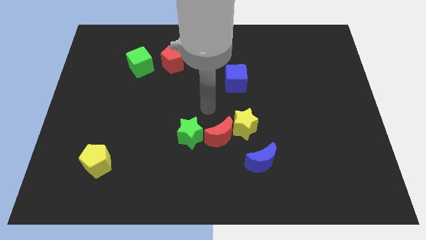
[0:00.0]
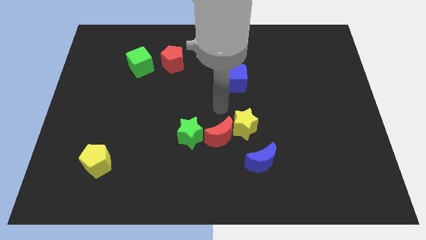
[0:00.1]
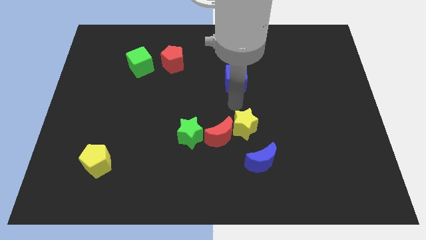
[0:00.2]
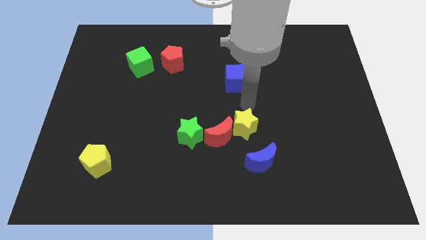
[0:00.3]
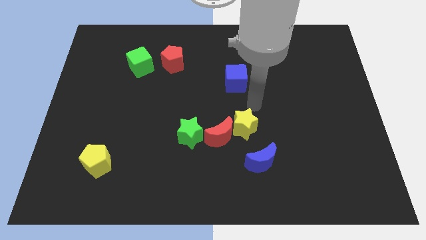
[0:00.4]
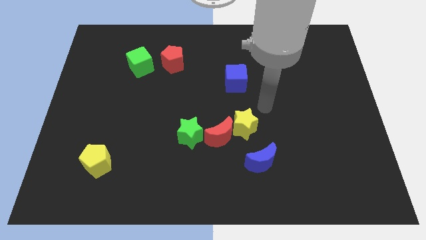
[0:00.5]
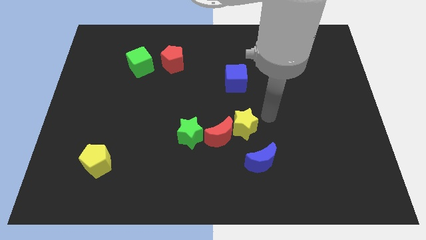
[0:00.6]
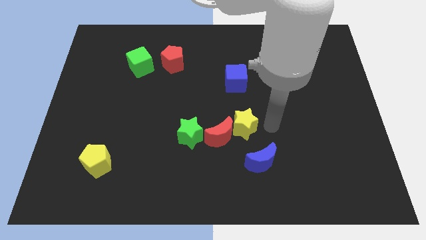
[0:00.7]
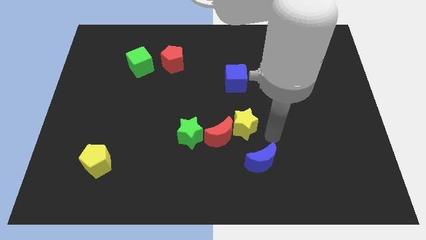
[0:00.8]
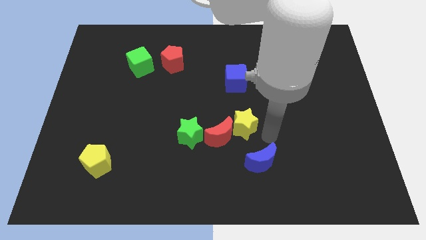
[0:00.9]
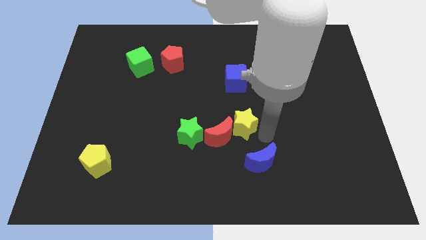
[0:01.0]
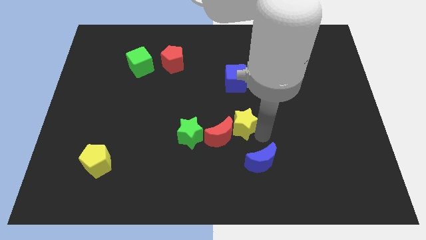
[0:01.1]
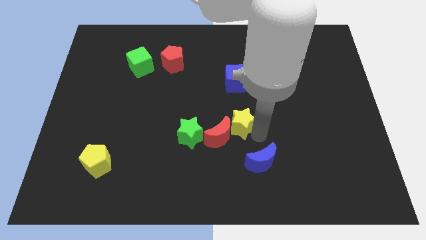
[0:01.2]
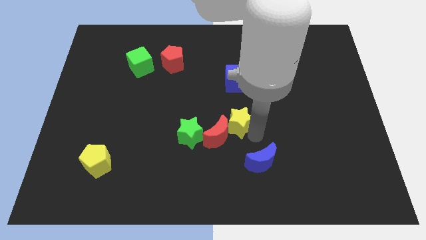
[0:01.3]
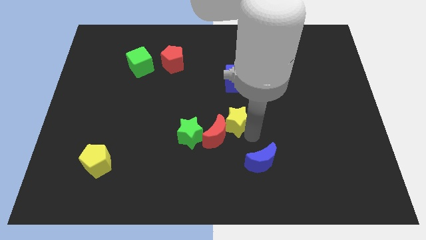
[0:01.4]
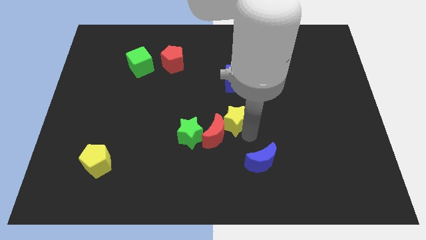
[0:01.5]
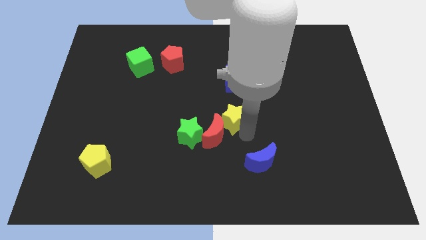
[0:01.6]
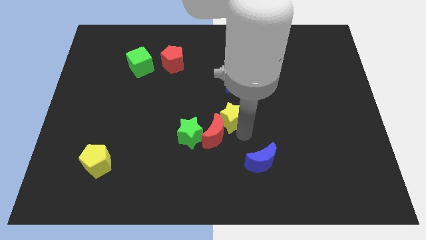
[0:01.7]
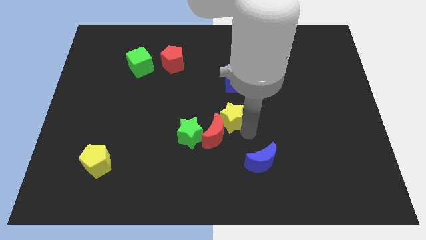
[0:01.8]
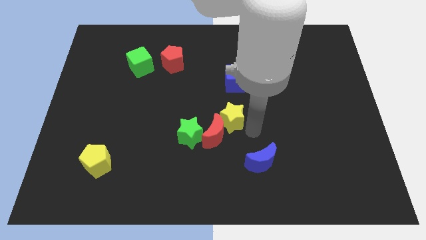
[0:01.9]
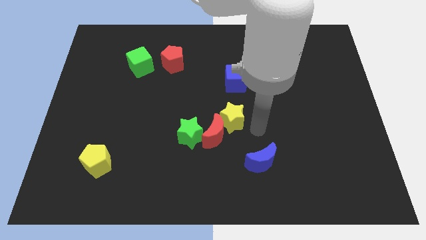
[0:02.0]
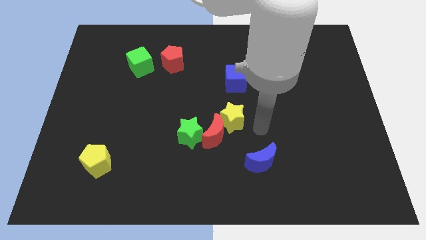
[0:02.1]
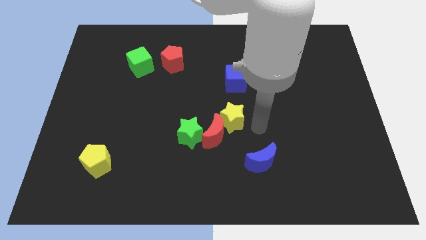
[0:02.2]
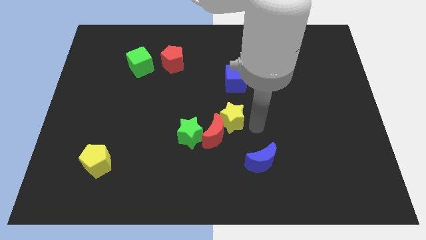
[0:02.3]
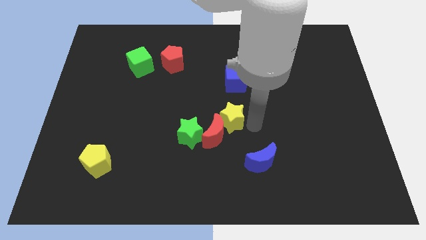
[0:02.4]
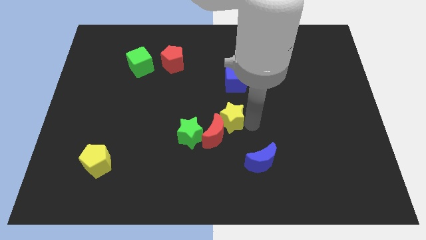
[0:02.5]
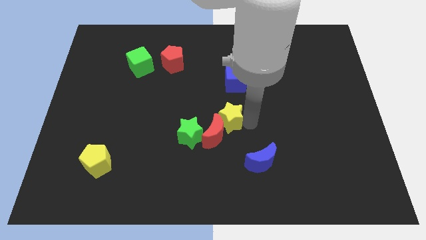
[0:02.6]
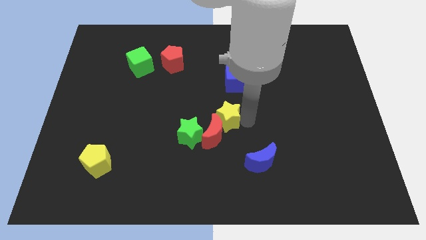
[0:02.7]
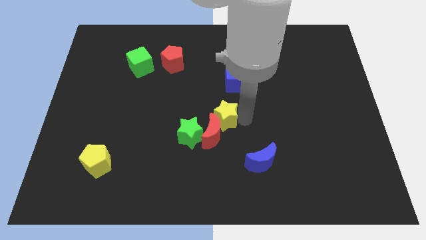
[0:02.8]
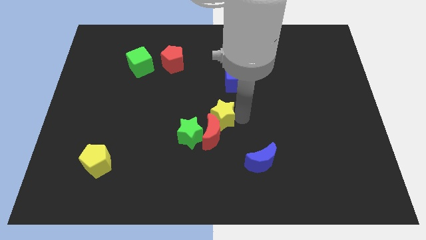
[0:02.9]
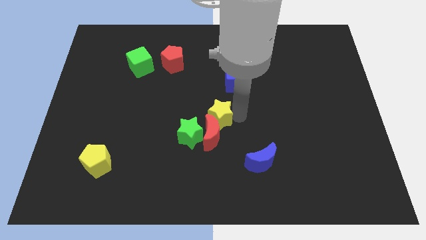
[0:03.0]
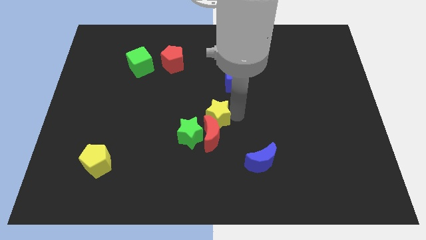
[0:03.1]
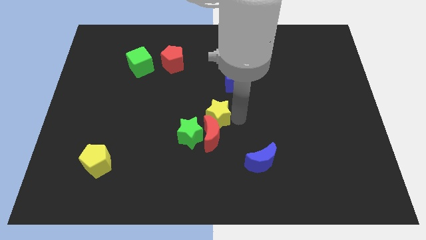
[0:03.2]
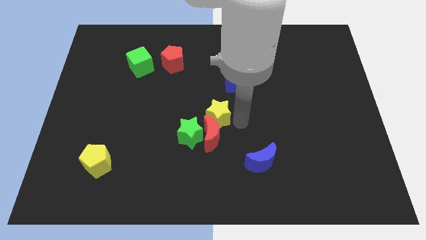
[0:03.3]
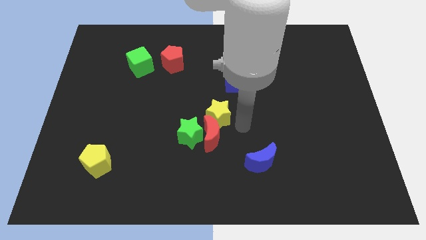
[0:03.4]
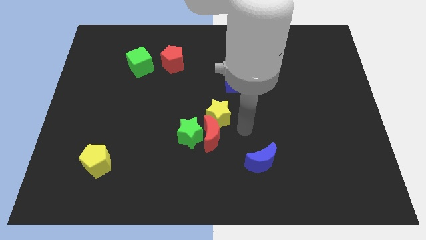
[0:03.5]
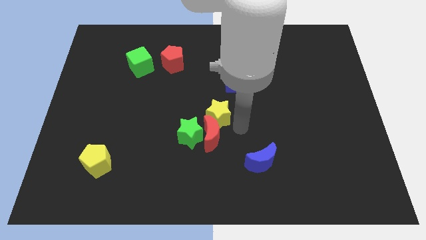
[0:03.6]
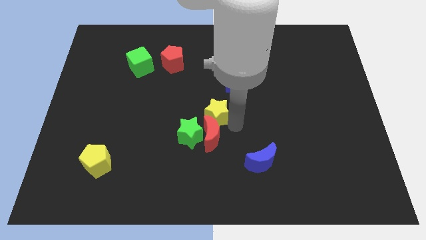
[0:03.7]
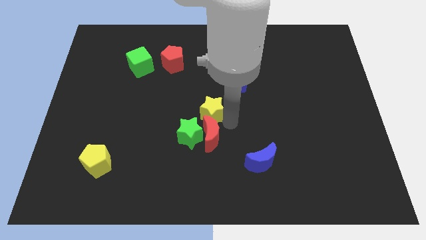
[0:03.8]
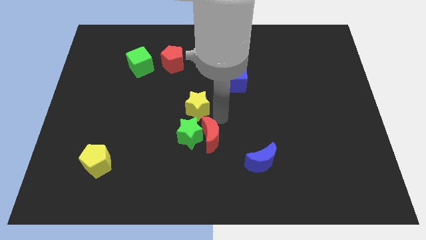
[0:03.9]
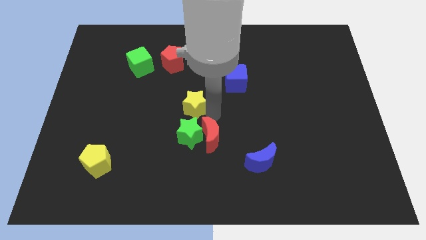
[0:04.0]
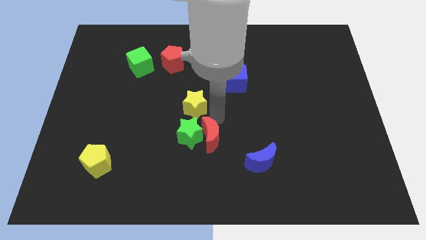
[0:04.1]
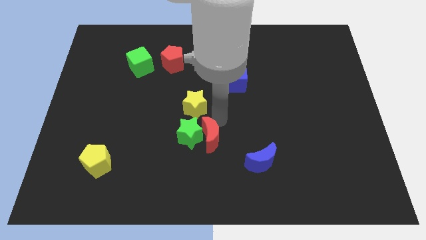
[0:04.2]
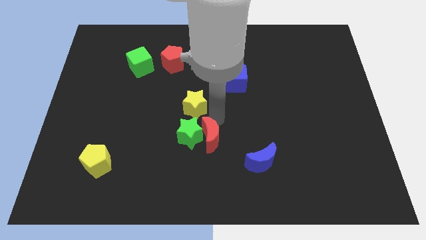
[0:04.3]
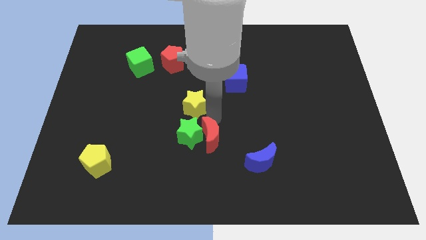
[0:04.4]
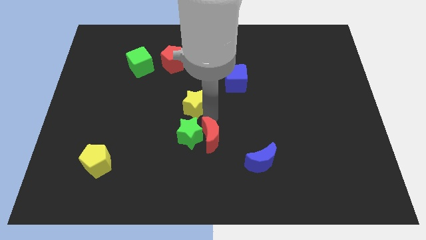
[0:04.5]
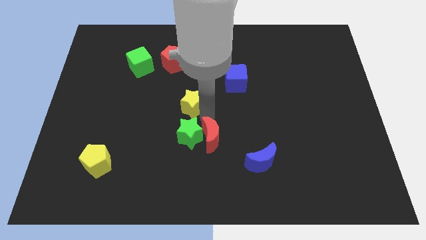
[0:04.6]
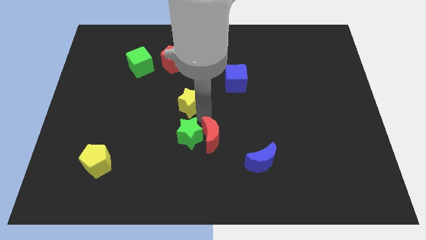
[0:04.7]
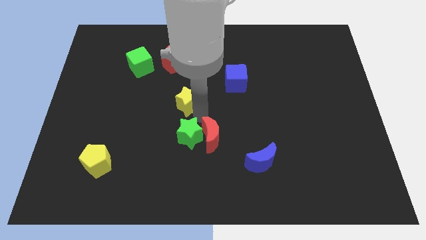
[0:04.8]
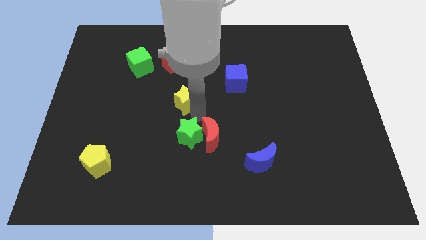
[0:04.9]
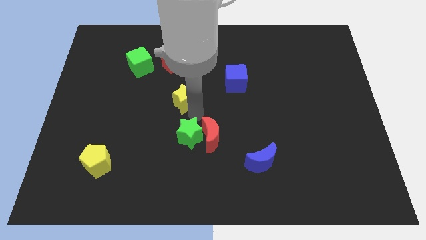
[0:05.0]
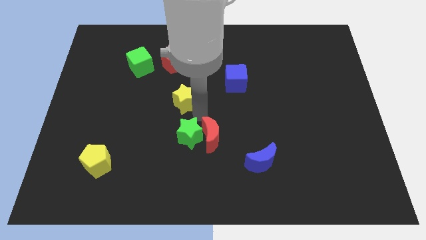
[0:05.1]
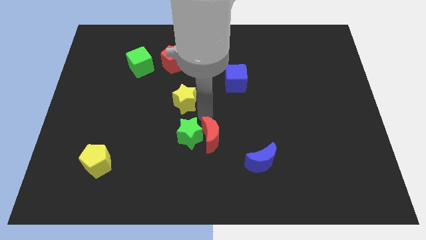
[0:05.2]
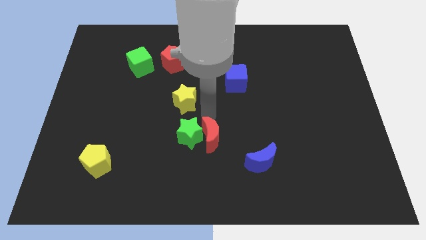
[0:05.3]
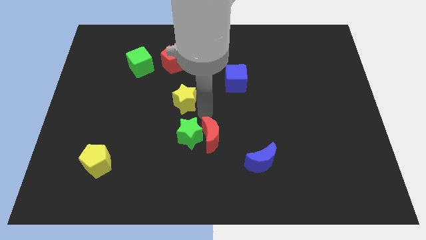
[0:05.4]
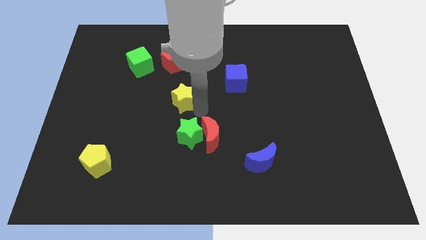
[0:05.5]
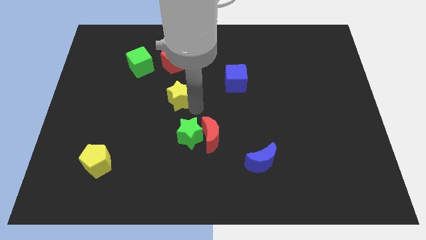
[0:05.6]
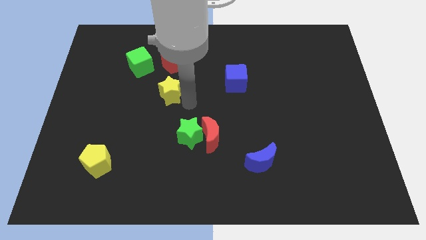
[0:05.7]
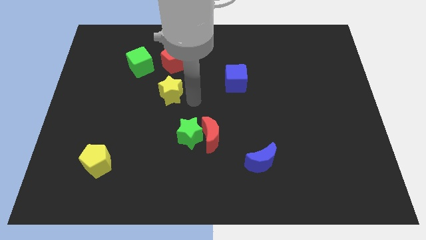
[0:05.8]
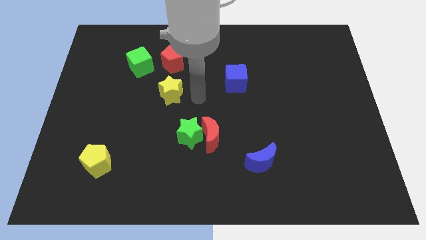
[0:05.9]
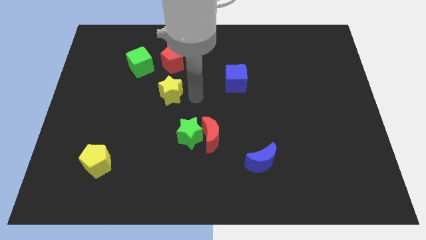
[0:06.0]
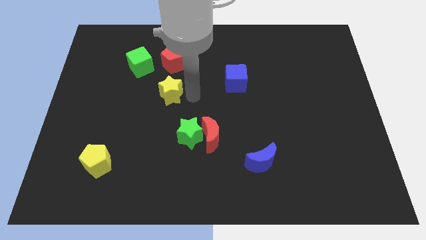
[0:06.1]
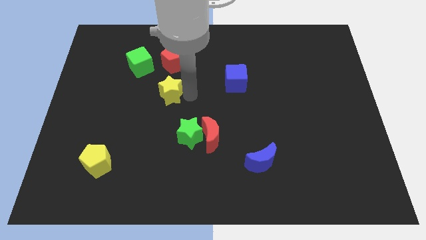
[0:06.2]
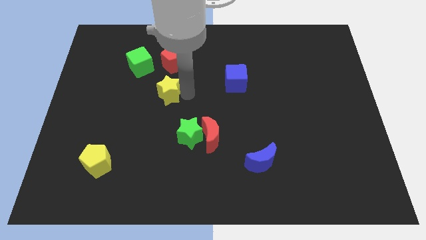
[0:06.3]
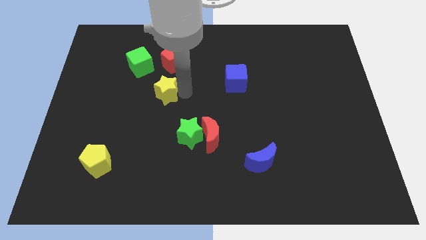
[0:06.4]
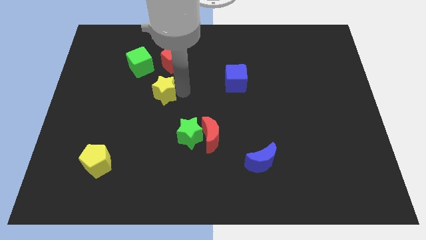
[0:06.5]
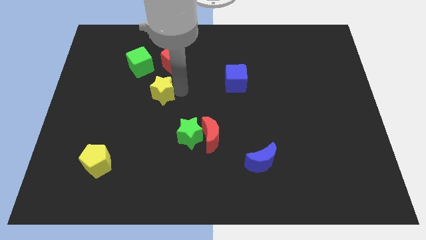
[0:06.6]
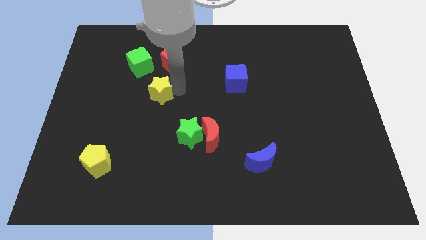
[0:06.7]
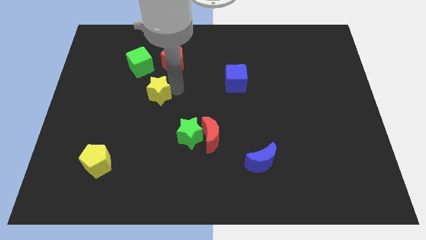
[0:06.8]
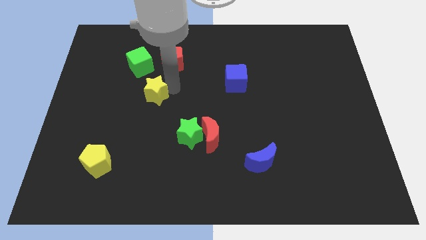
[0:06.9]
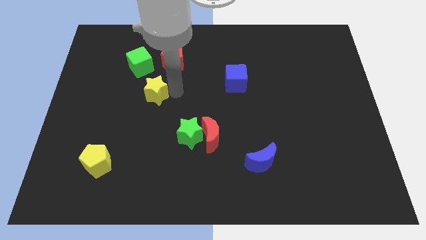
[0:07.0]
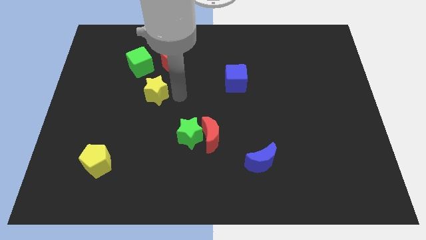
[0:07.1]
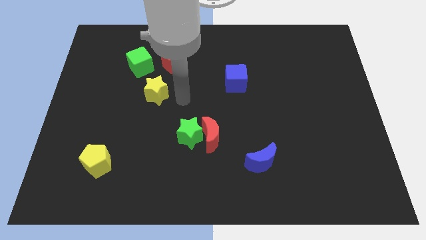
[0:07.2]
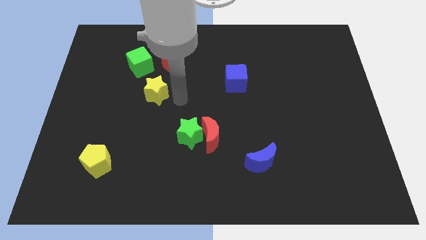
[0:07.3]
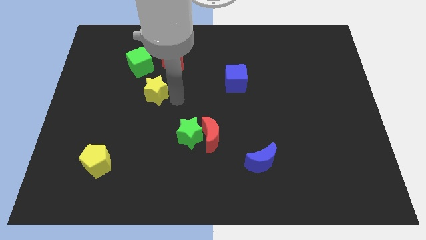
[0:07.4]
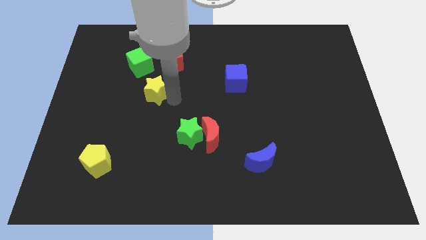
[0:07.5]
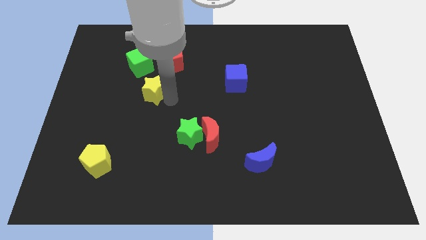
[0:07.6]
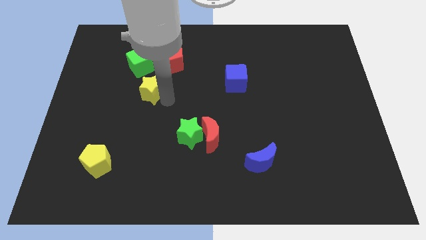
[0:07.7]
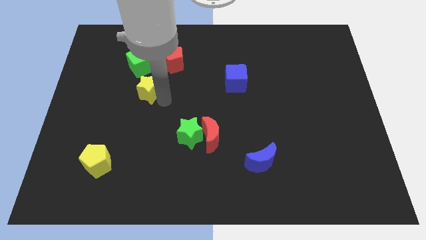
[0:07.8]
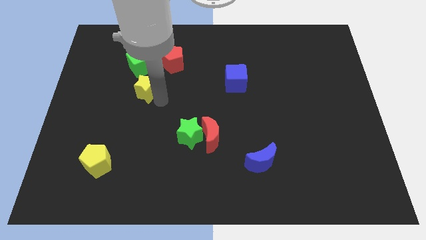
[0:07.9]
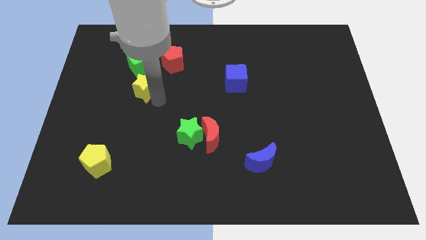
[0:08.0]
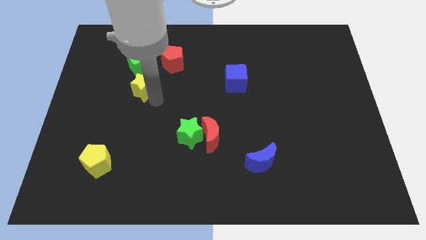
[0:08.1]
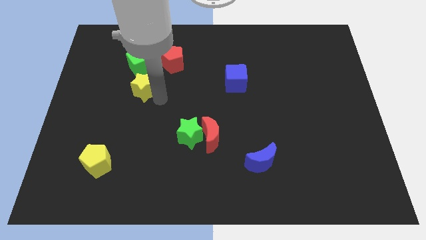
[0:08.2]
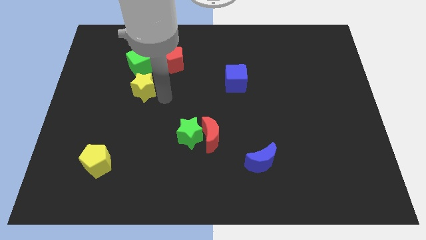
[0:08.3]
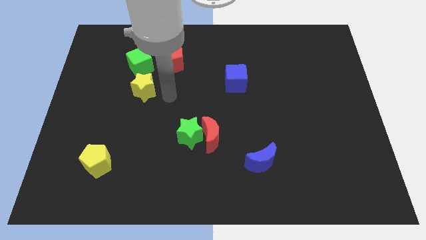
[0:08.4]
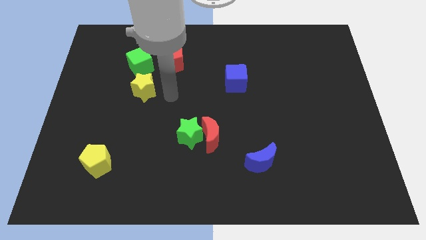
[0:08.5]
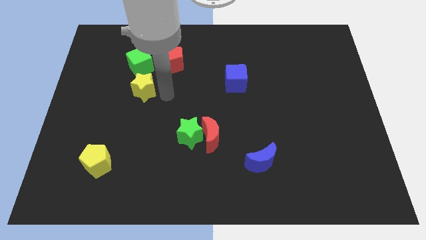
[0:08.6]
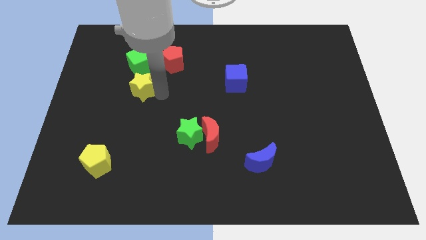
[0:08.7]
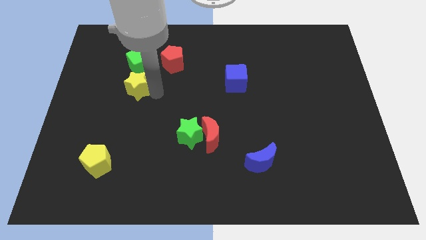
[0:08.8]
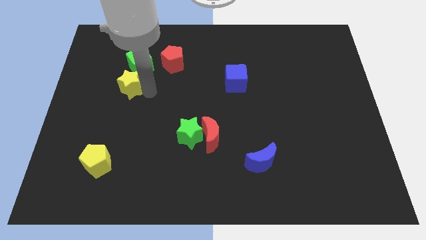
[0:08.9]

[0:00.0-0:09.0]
move the yellow star to the bottom left side of the green cube
